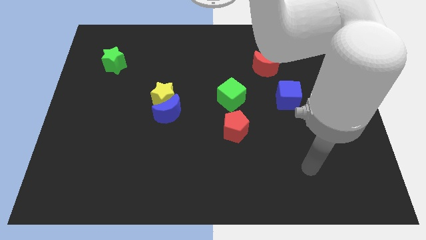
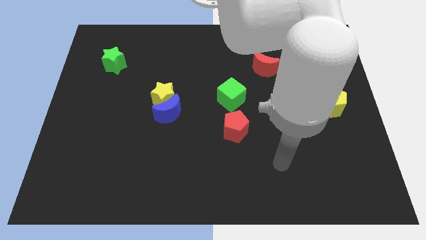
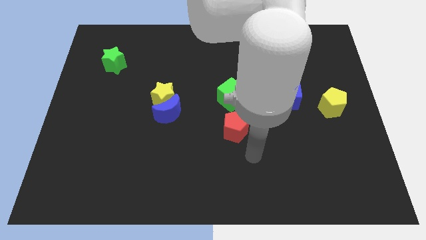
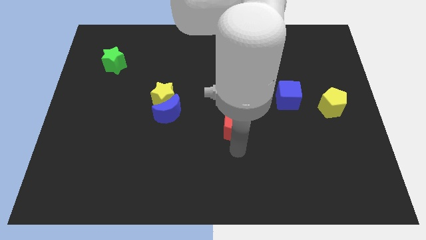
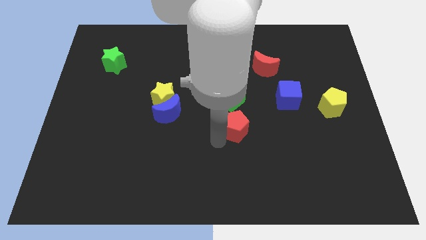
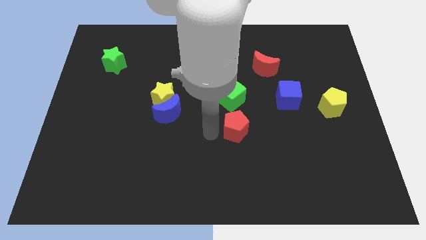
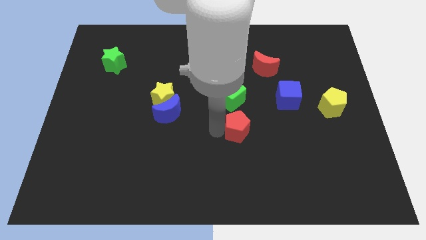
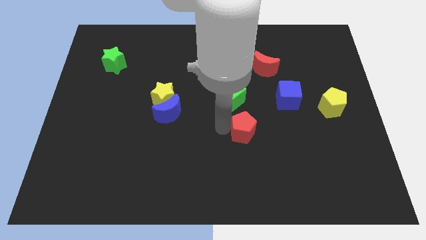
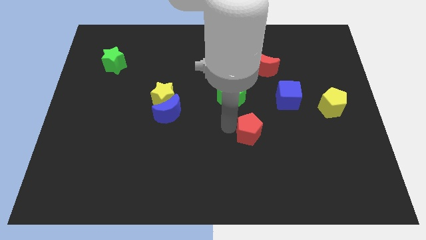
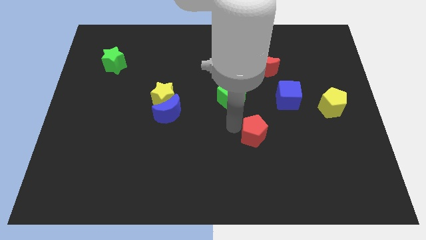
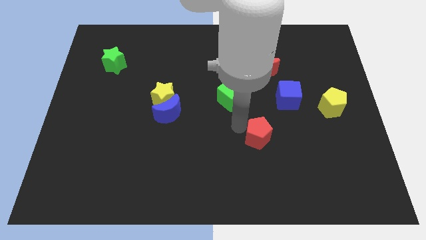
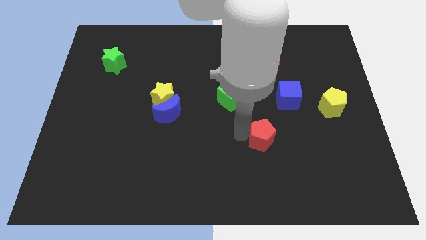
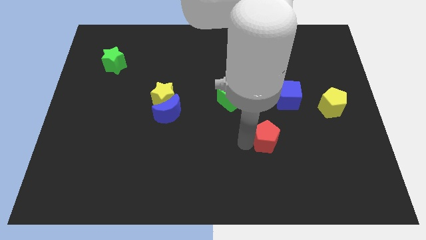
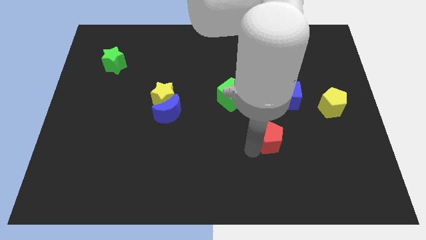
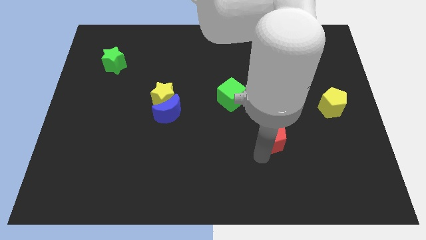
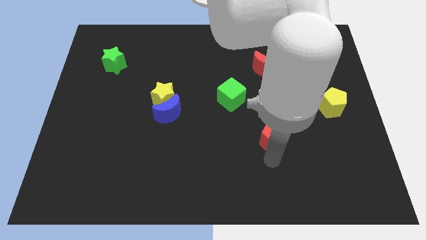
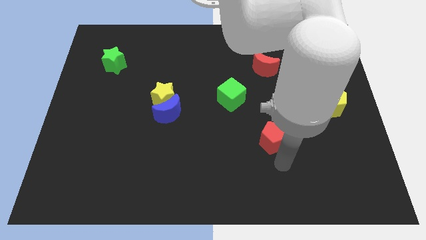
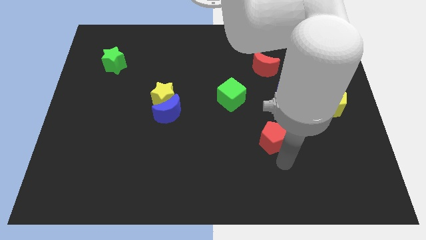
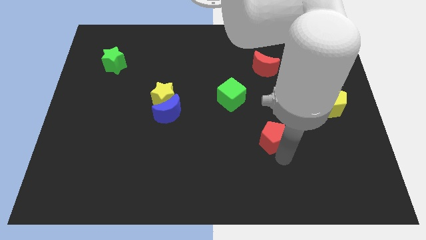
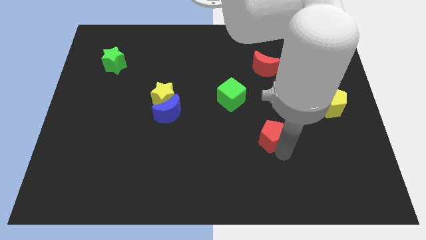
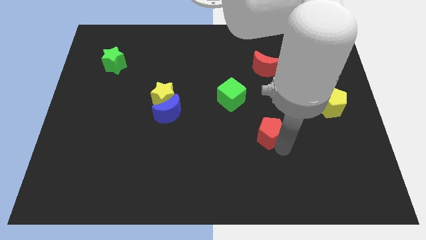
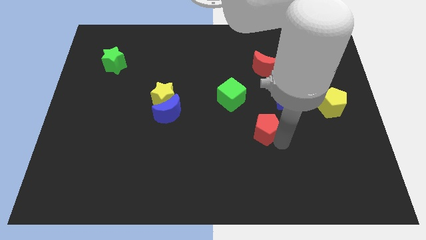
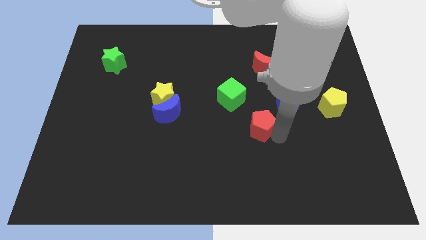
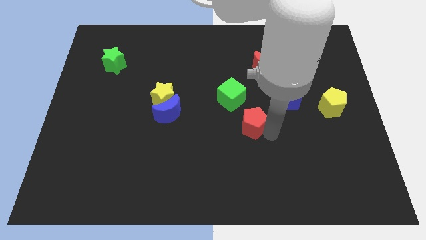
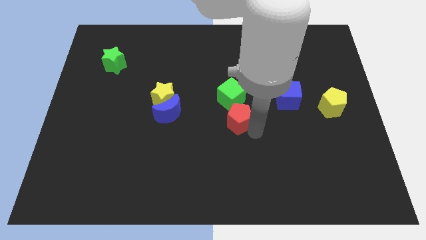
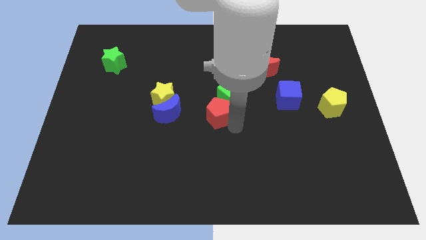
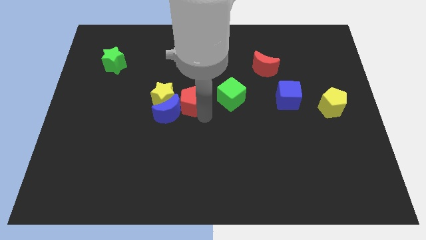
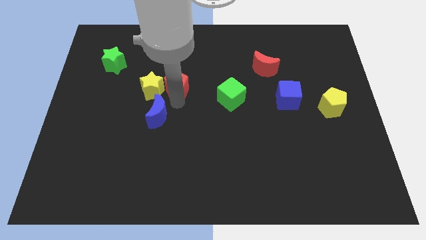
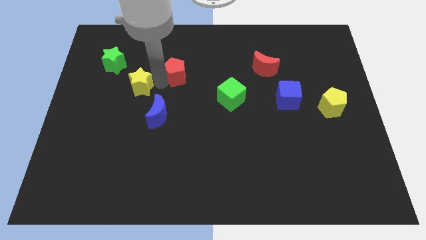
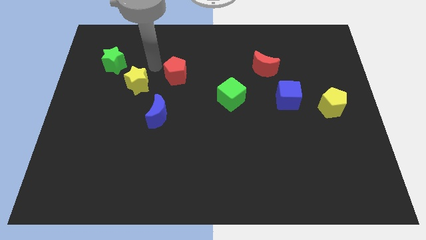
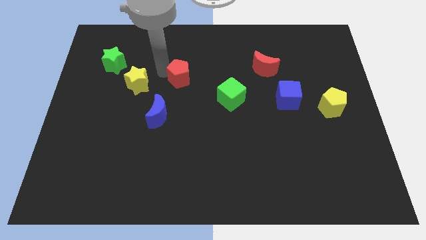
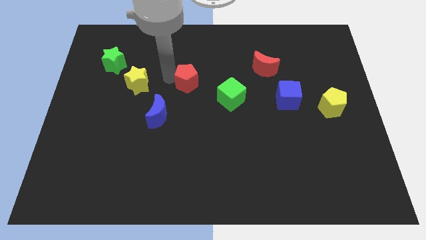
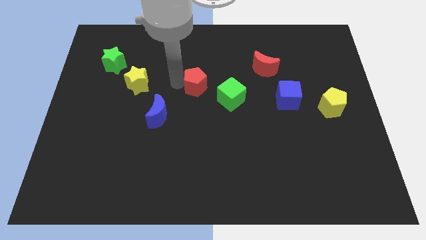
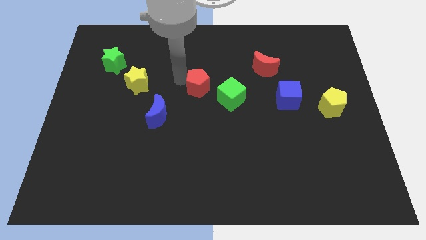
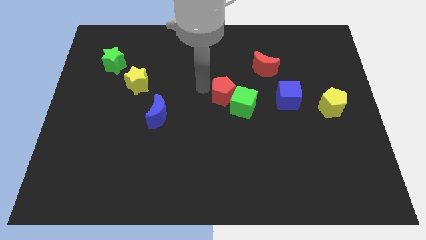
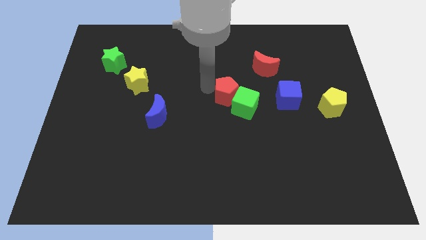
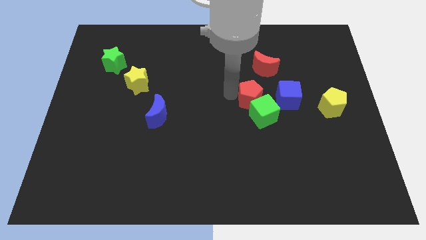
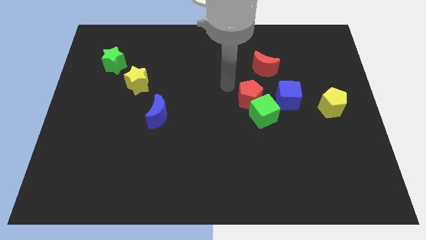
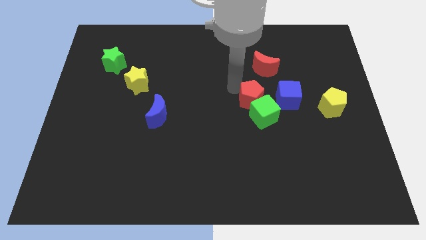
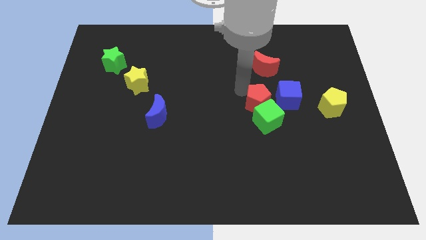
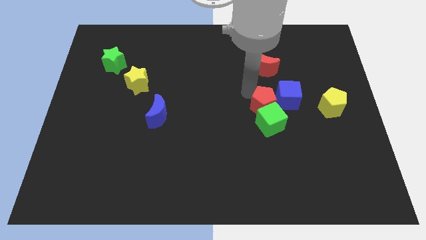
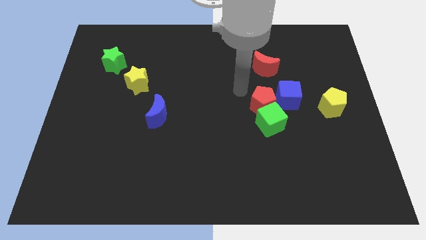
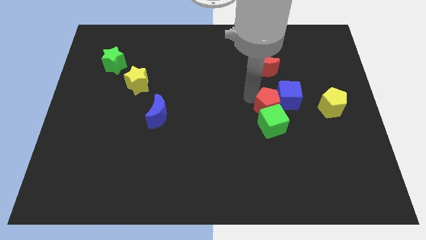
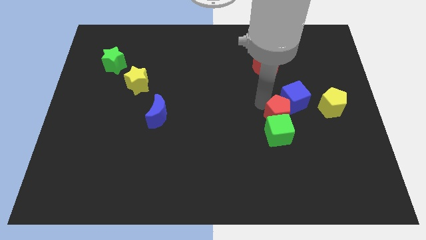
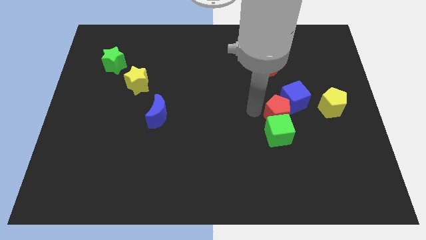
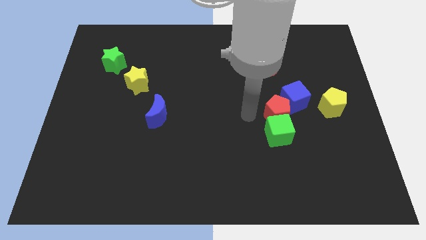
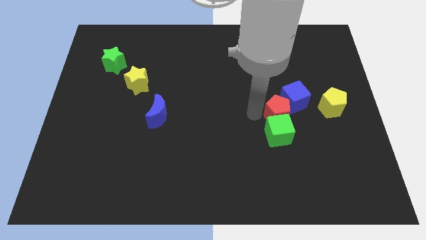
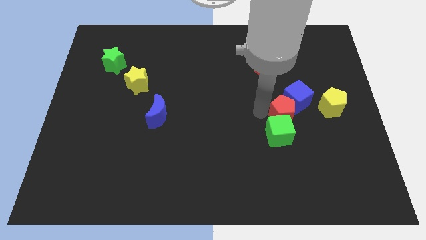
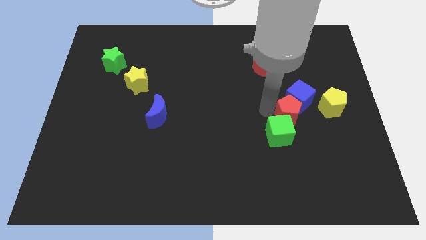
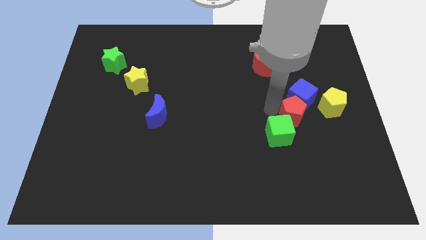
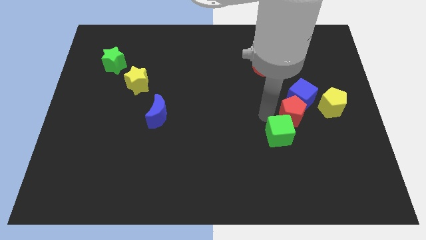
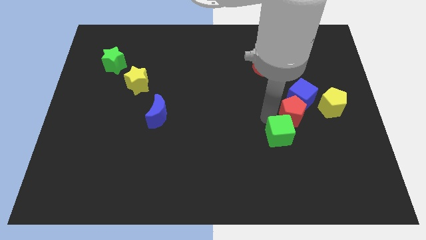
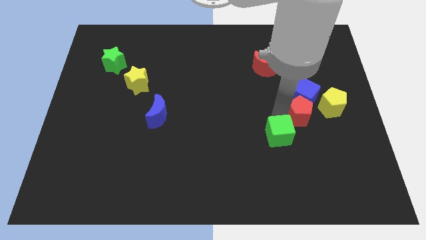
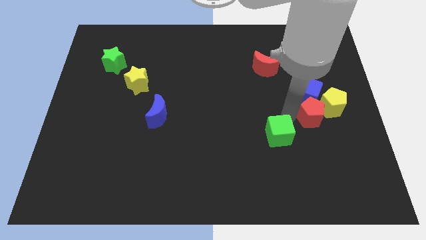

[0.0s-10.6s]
slide the red pentagon next to the yellow pentagon

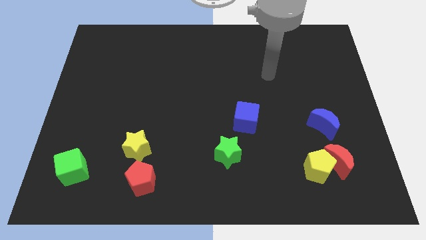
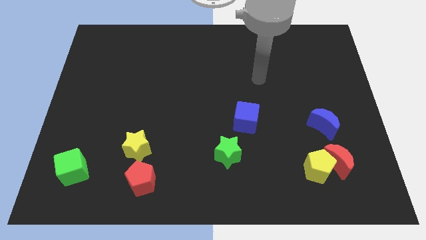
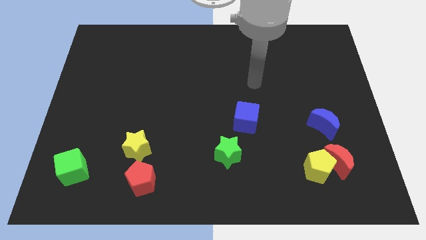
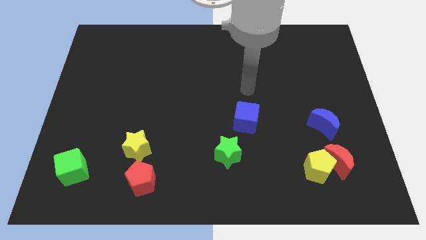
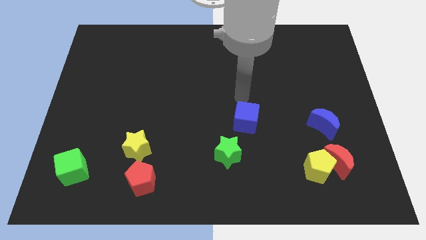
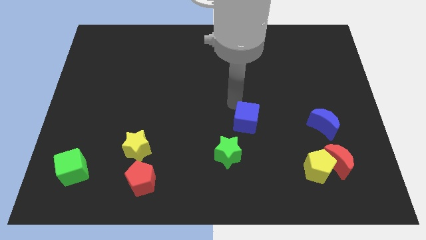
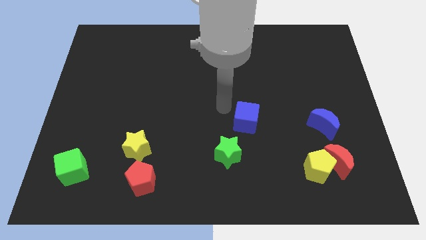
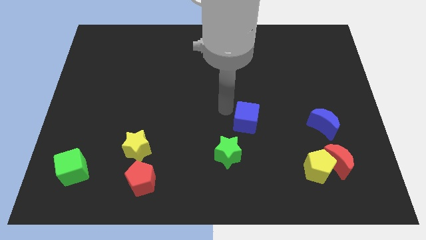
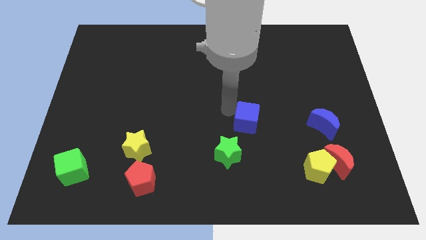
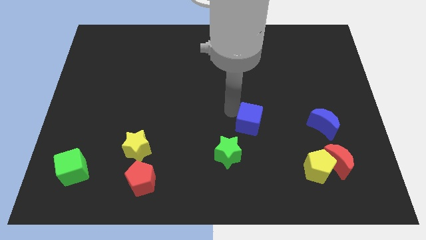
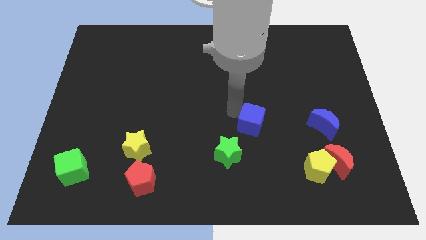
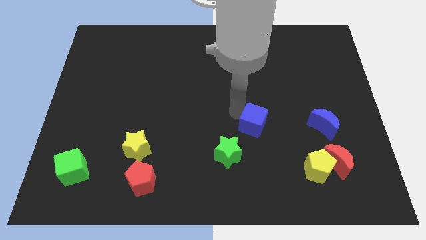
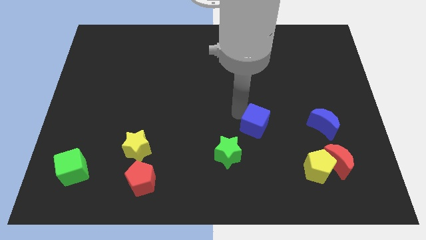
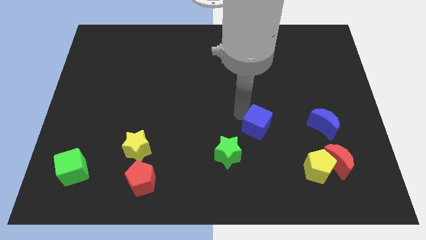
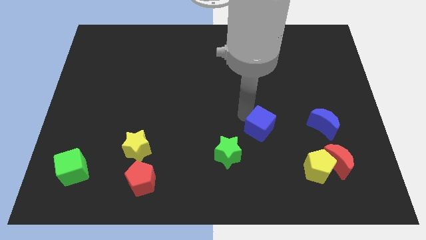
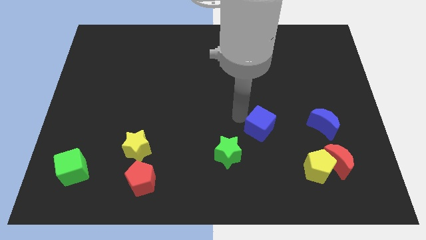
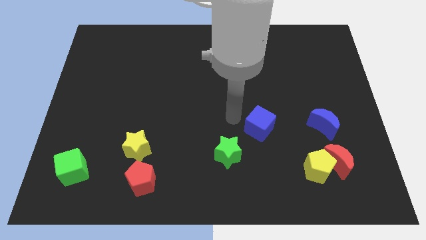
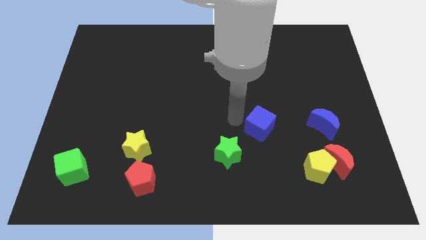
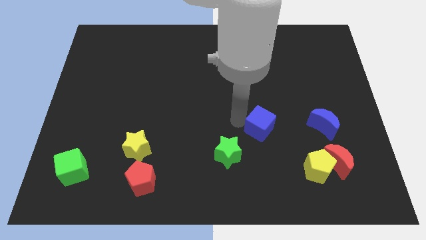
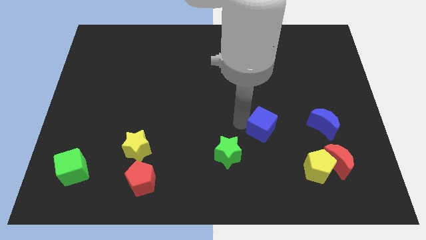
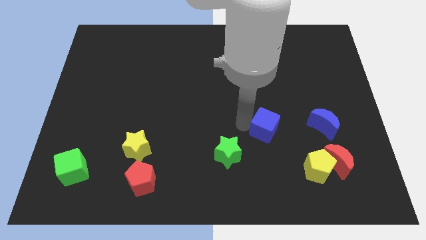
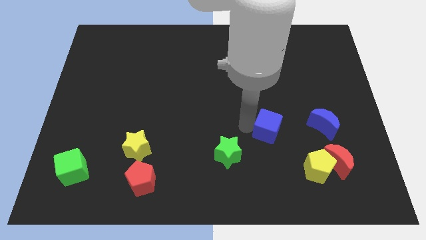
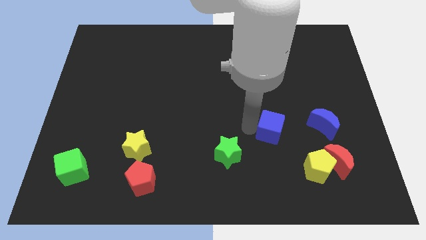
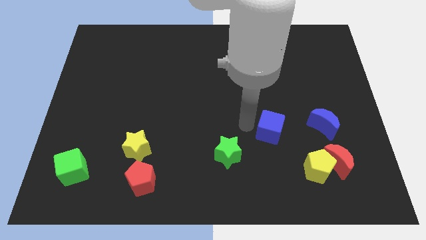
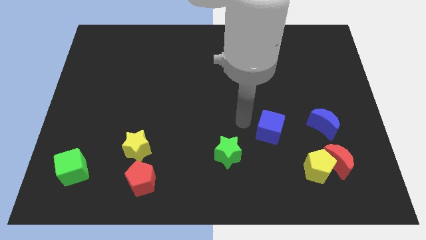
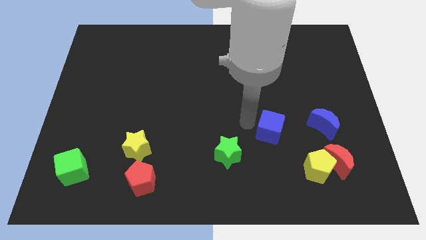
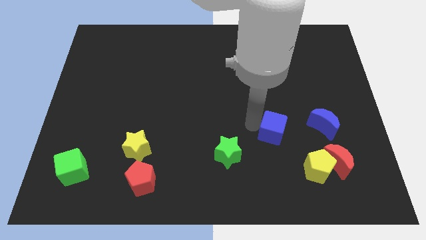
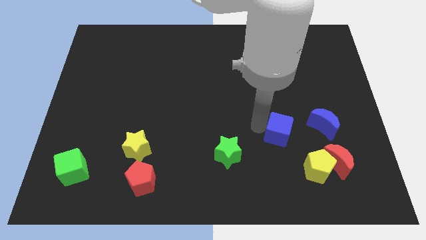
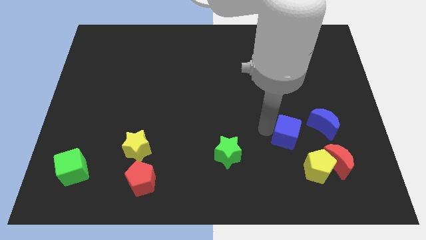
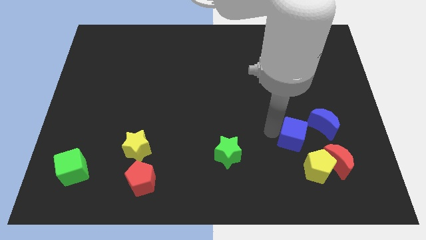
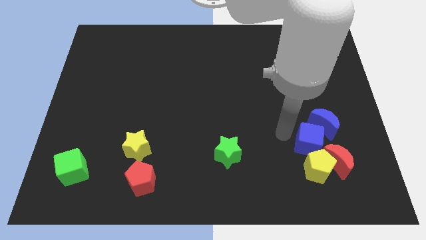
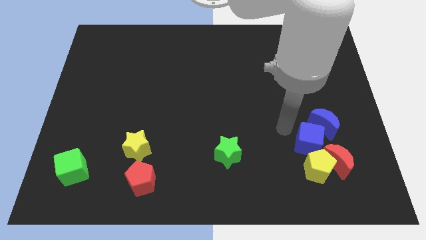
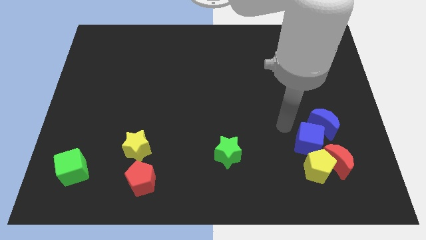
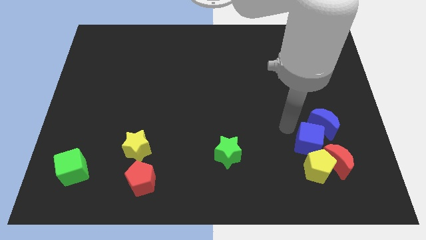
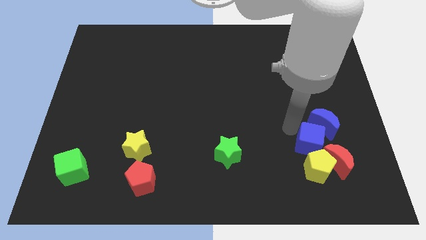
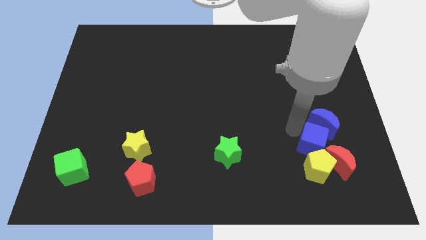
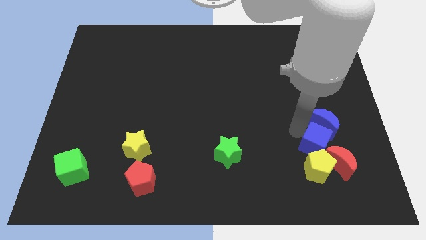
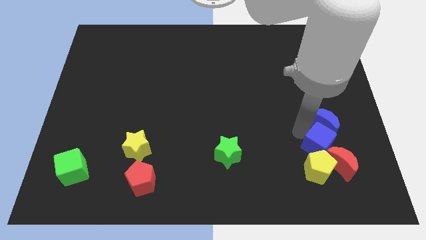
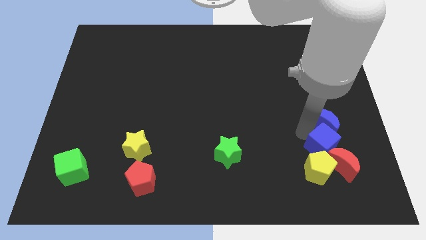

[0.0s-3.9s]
push the blue cube close to the red moon
